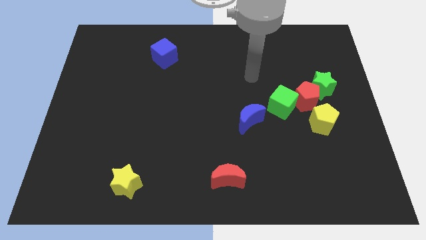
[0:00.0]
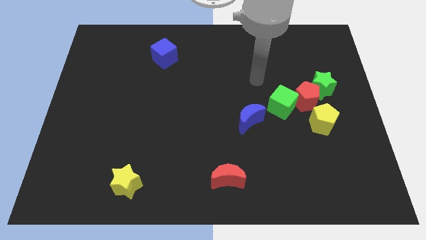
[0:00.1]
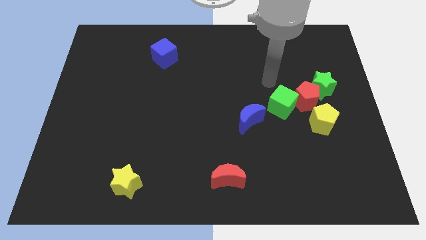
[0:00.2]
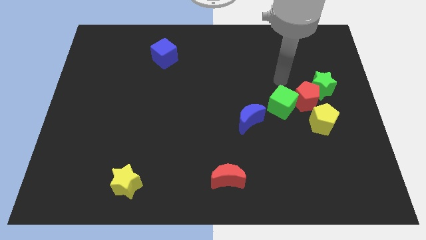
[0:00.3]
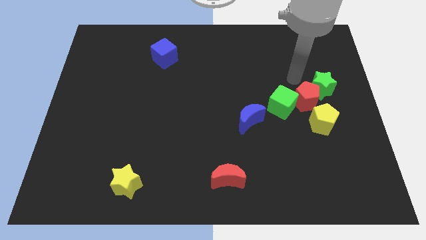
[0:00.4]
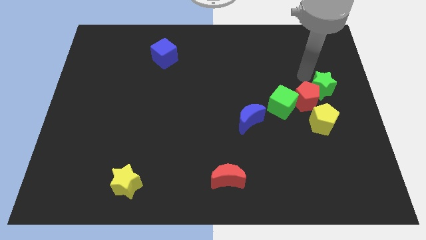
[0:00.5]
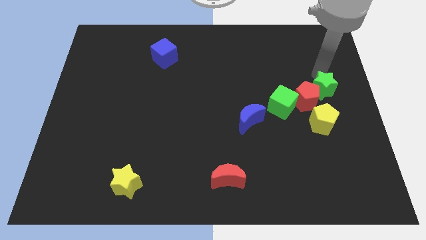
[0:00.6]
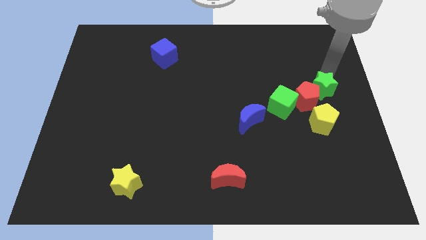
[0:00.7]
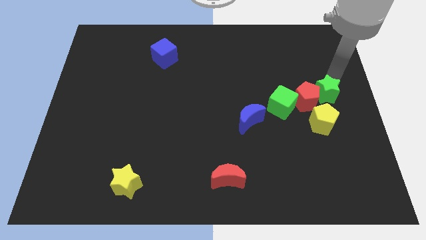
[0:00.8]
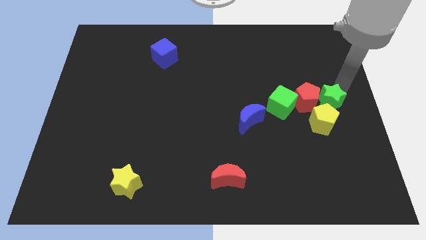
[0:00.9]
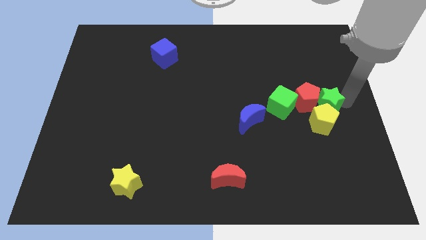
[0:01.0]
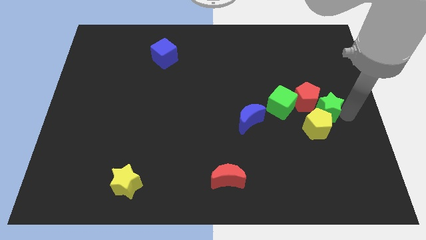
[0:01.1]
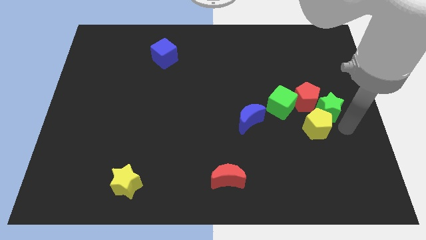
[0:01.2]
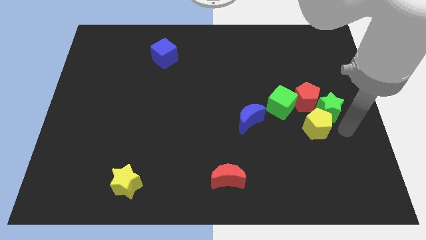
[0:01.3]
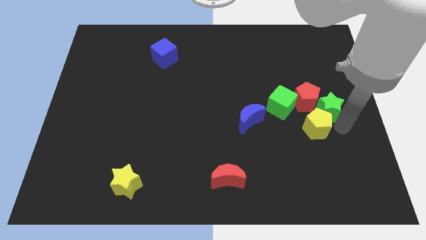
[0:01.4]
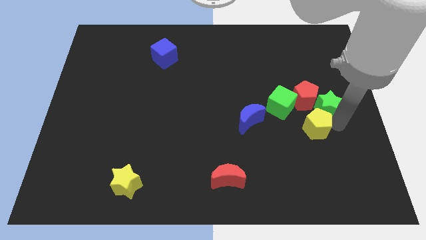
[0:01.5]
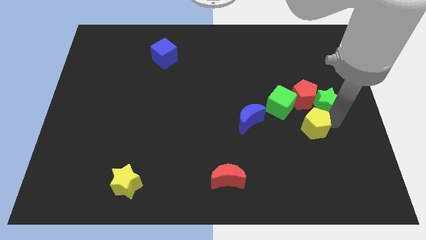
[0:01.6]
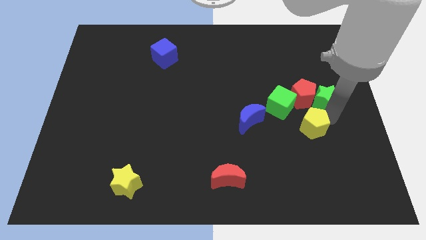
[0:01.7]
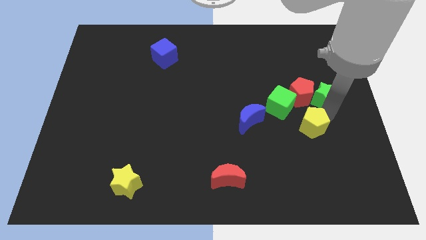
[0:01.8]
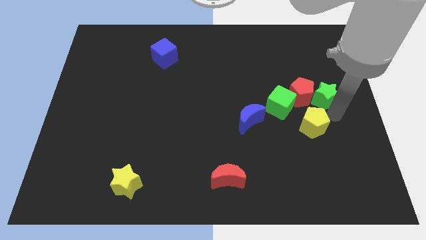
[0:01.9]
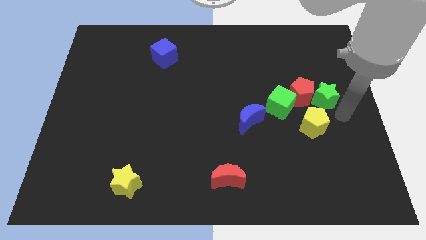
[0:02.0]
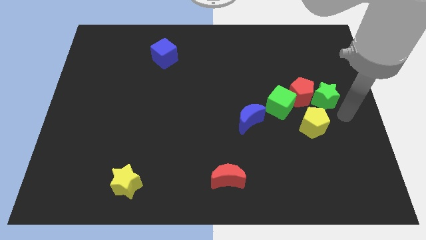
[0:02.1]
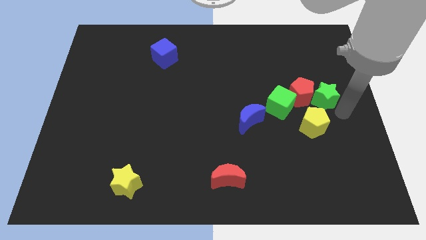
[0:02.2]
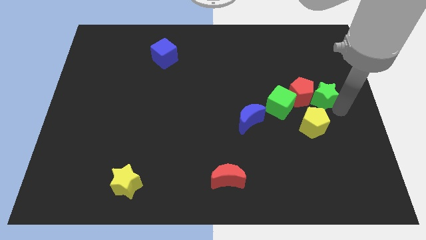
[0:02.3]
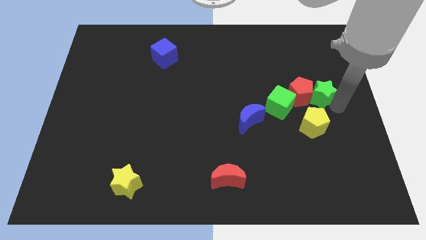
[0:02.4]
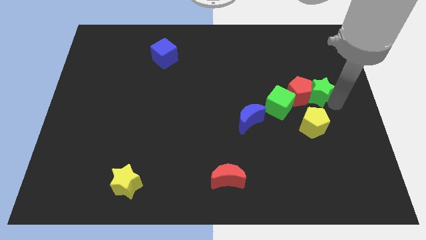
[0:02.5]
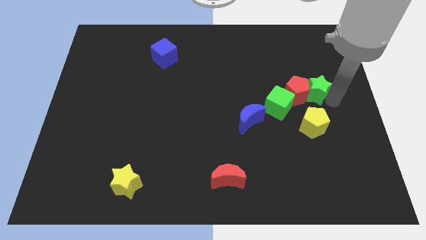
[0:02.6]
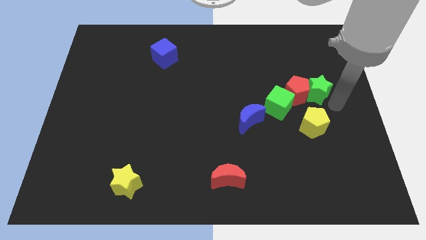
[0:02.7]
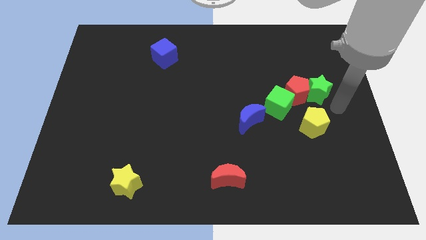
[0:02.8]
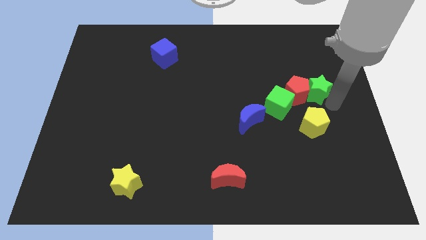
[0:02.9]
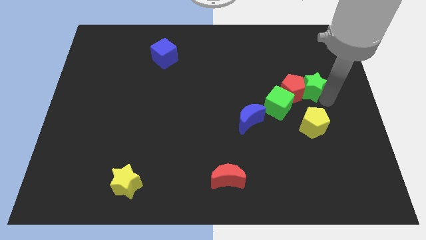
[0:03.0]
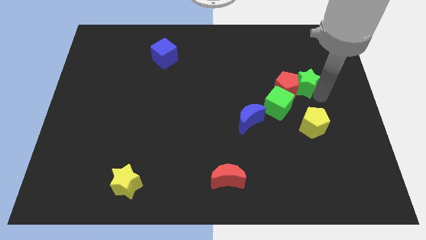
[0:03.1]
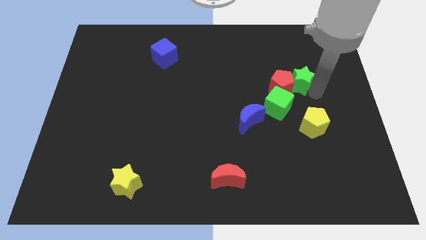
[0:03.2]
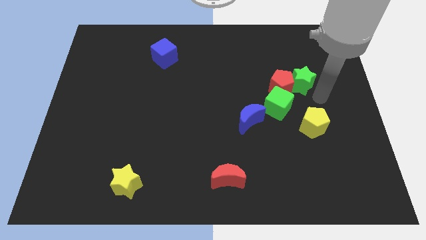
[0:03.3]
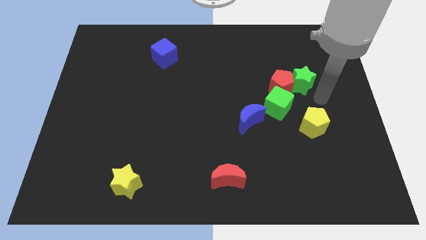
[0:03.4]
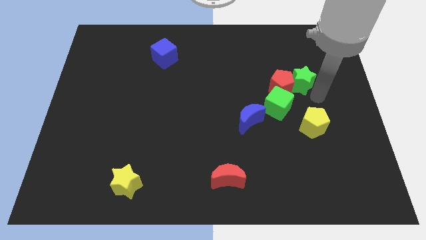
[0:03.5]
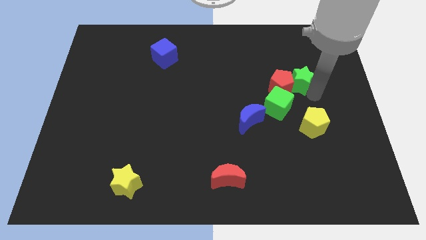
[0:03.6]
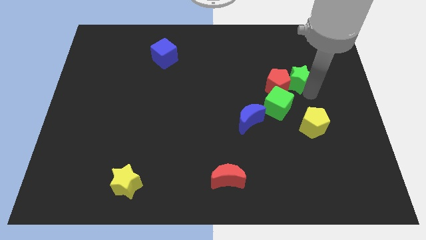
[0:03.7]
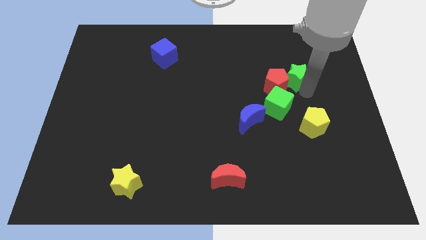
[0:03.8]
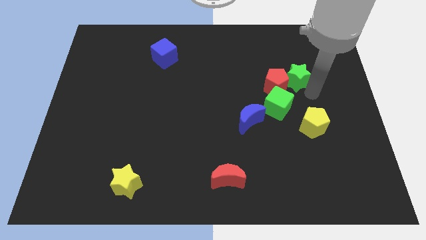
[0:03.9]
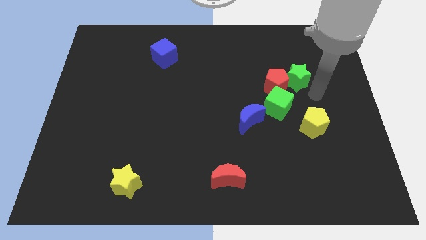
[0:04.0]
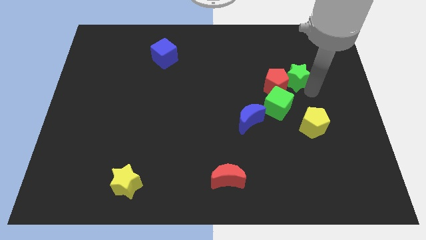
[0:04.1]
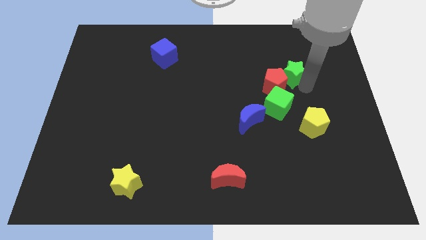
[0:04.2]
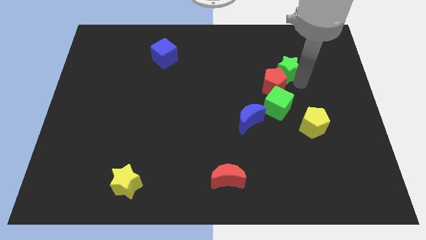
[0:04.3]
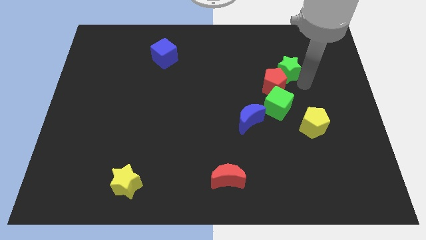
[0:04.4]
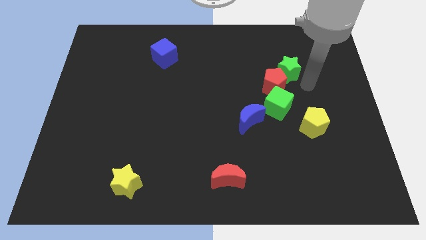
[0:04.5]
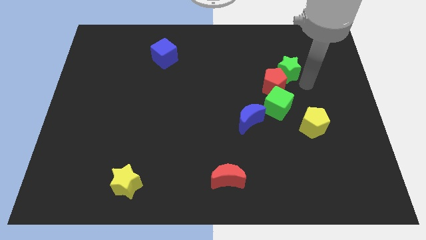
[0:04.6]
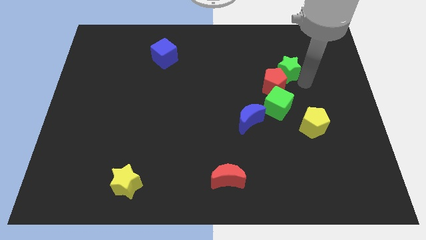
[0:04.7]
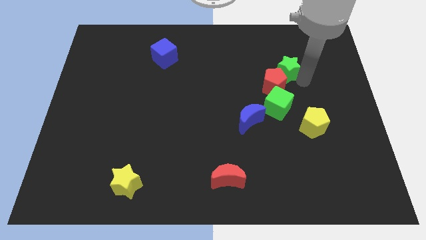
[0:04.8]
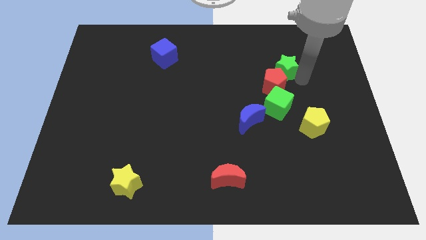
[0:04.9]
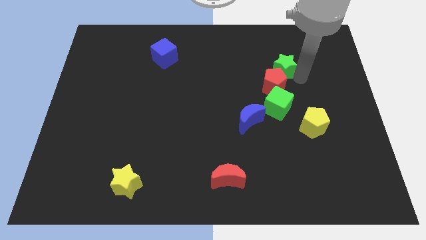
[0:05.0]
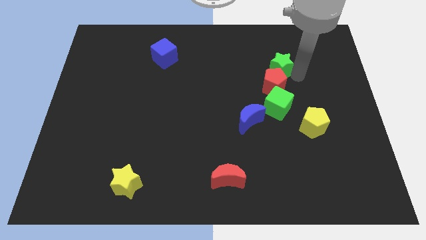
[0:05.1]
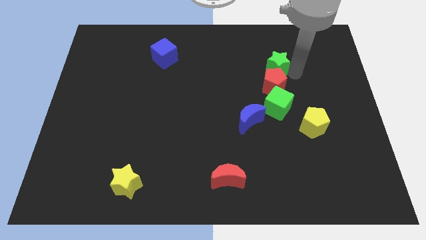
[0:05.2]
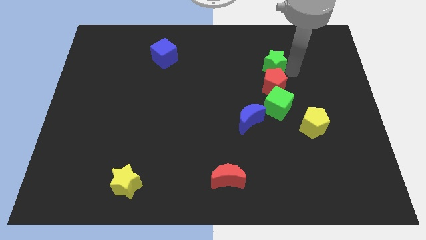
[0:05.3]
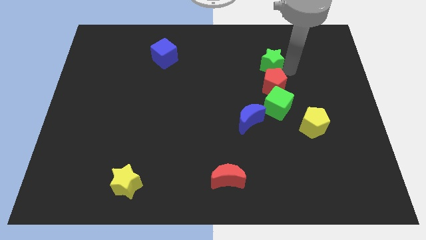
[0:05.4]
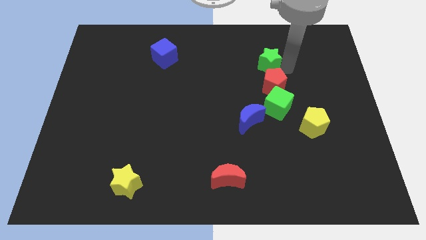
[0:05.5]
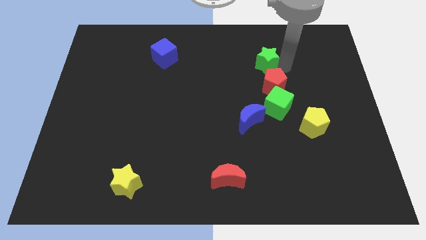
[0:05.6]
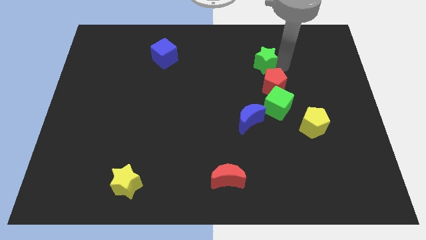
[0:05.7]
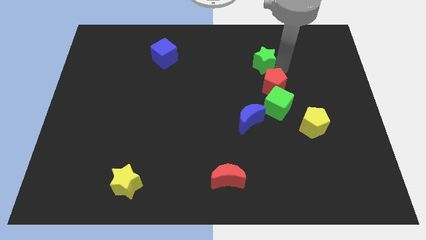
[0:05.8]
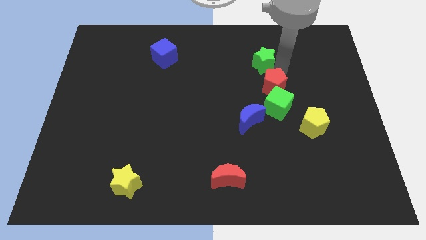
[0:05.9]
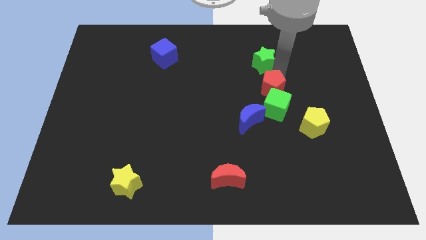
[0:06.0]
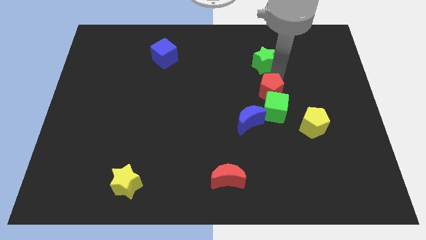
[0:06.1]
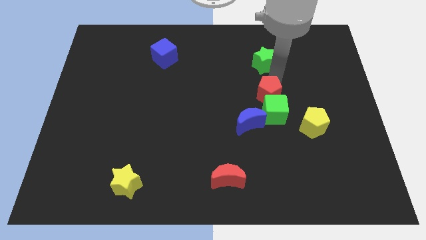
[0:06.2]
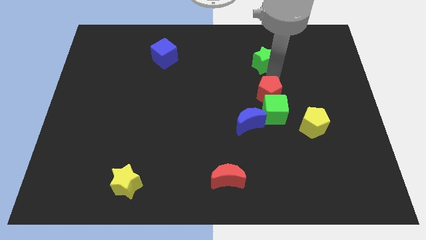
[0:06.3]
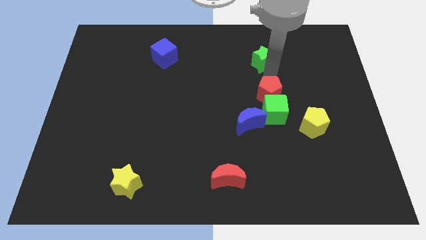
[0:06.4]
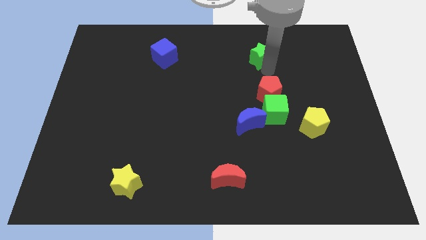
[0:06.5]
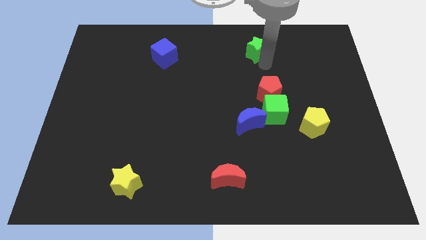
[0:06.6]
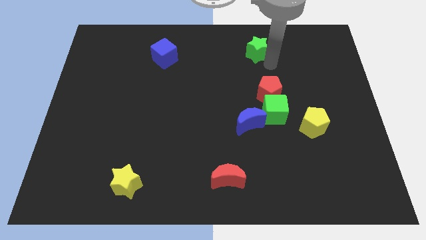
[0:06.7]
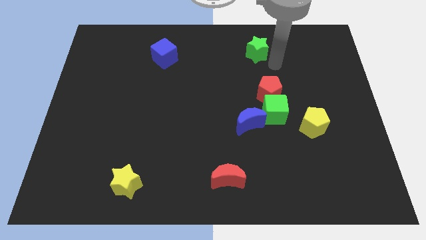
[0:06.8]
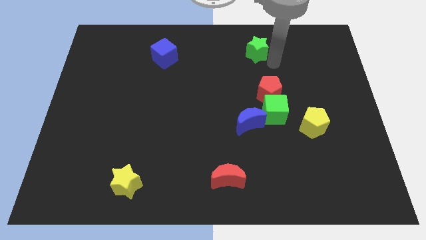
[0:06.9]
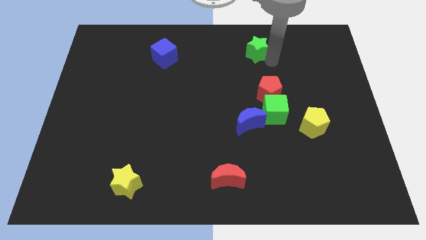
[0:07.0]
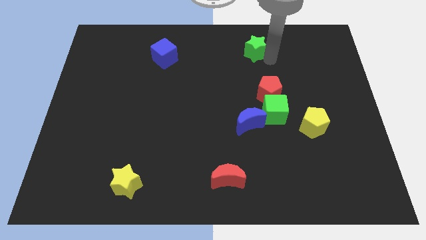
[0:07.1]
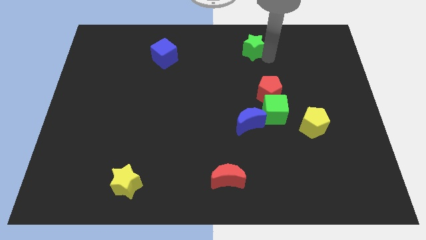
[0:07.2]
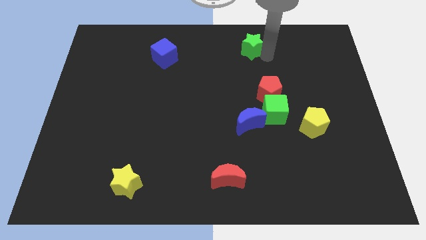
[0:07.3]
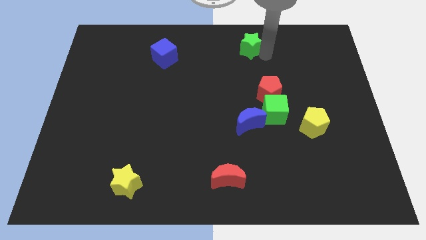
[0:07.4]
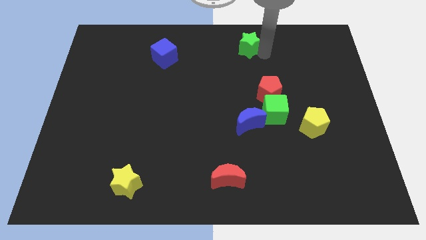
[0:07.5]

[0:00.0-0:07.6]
push the green star to the top side
